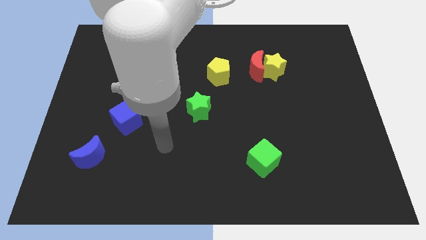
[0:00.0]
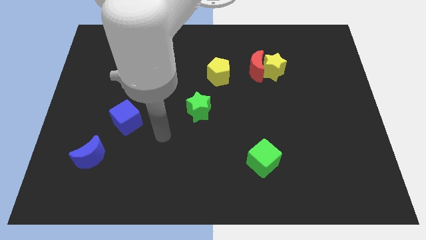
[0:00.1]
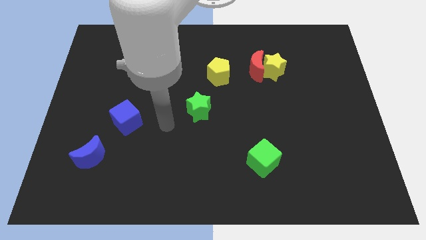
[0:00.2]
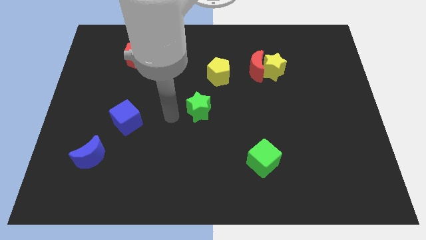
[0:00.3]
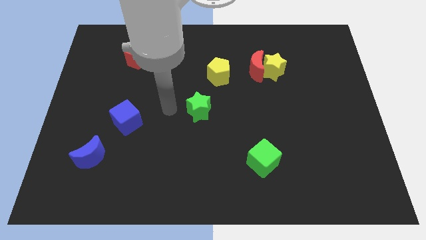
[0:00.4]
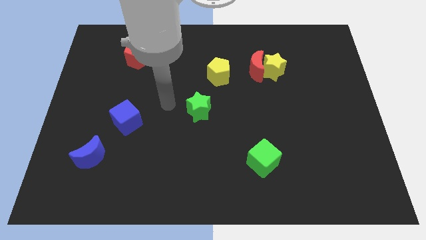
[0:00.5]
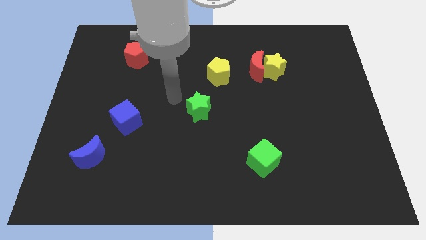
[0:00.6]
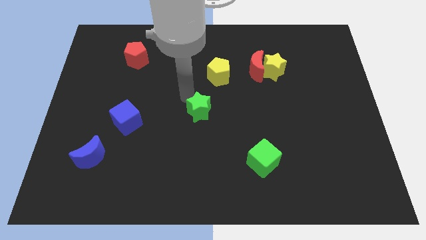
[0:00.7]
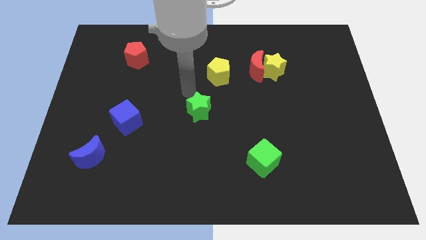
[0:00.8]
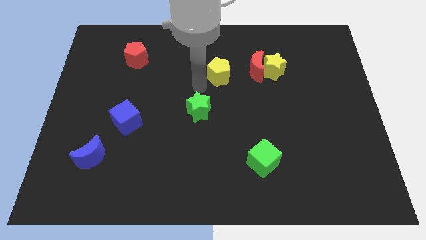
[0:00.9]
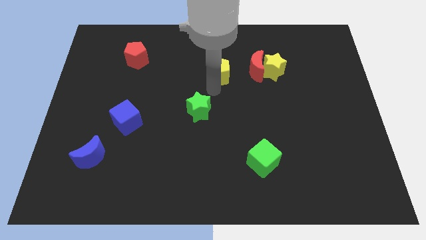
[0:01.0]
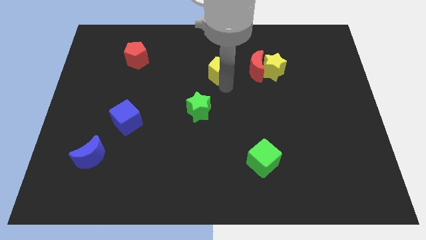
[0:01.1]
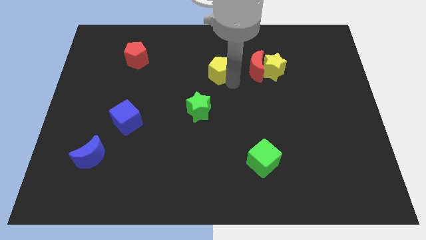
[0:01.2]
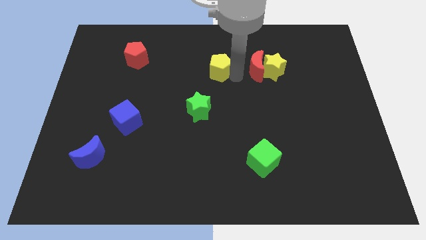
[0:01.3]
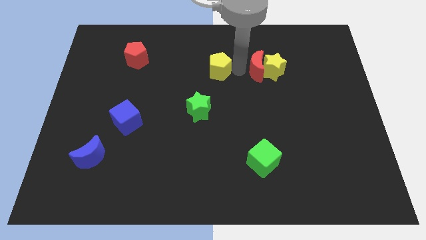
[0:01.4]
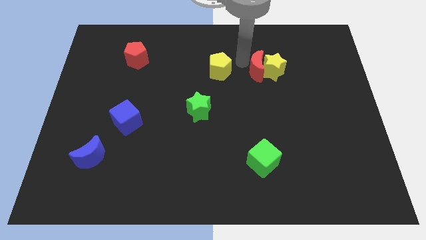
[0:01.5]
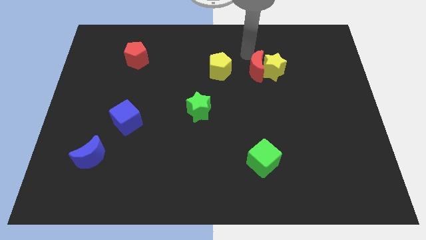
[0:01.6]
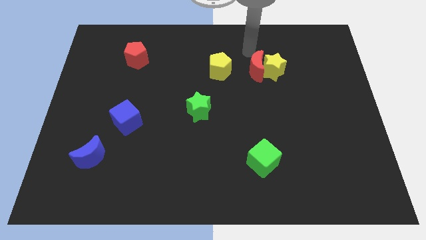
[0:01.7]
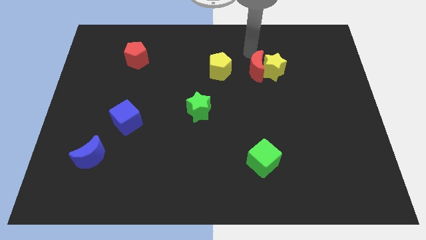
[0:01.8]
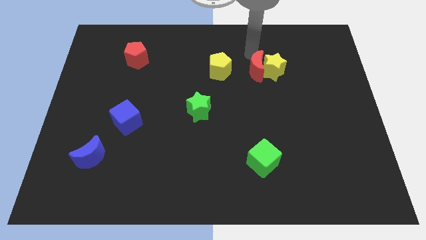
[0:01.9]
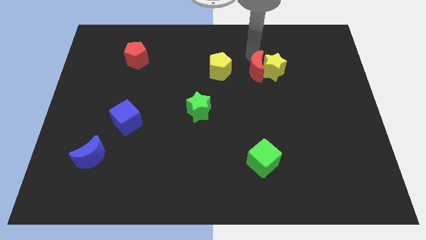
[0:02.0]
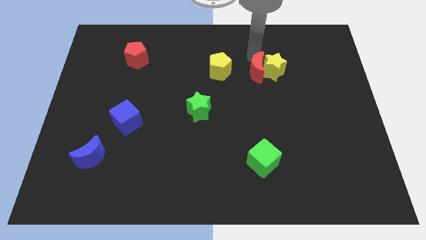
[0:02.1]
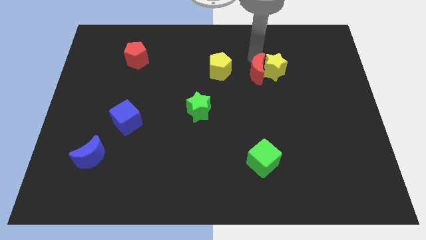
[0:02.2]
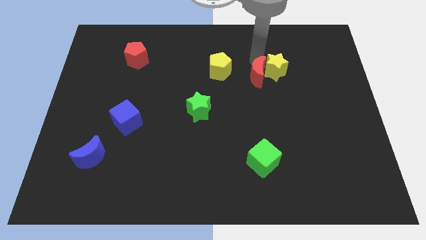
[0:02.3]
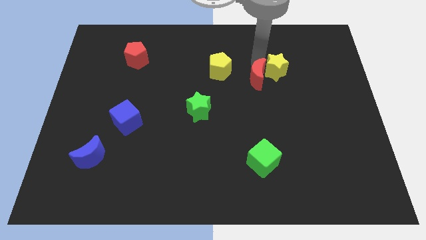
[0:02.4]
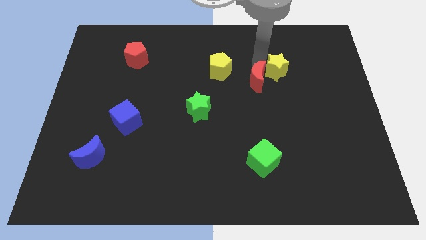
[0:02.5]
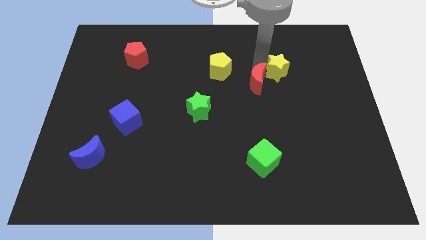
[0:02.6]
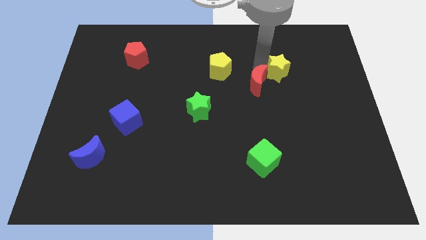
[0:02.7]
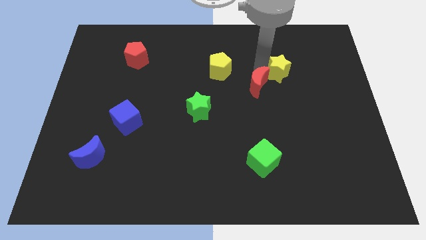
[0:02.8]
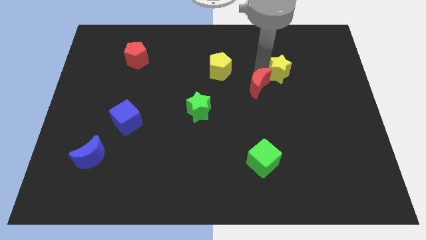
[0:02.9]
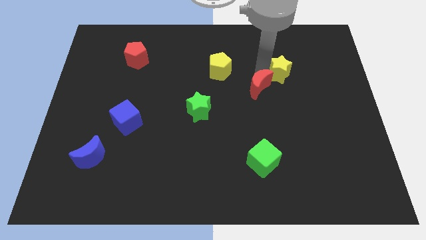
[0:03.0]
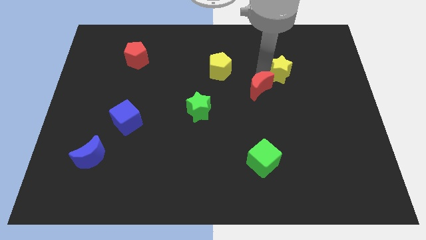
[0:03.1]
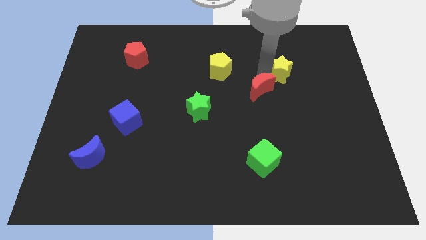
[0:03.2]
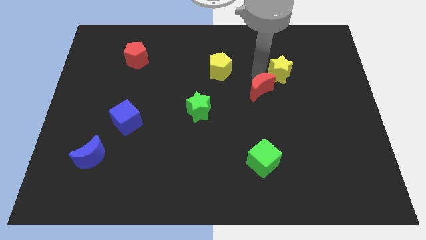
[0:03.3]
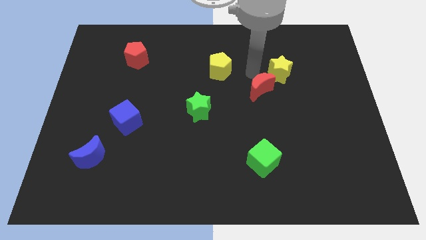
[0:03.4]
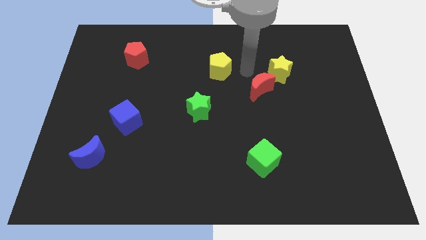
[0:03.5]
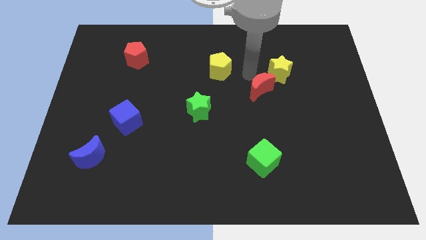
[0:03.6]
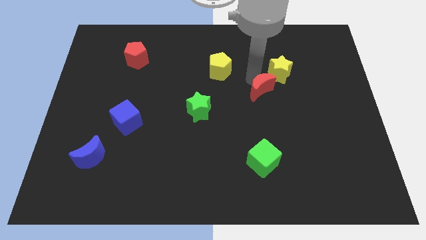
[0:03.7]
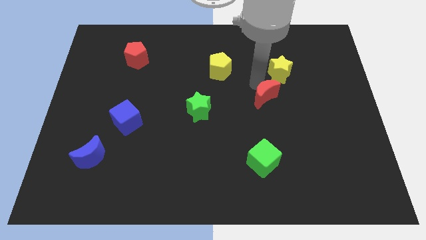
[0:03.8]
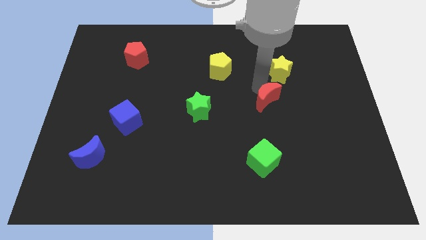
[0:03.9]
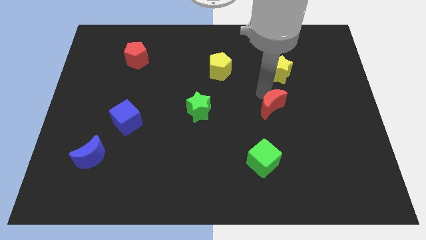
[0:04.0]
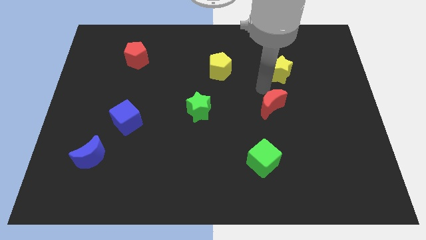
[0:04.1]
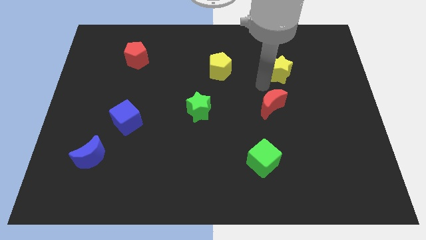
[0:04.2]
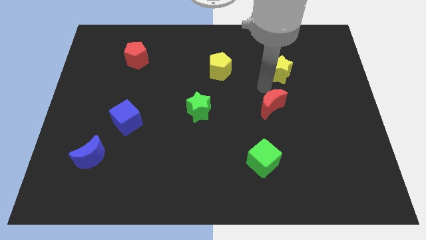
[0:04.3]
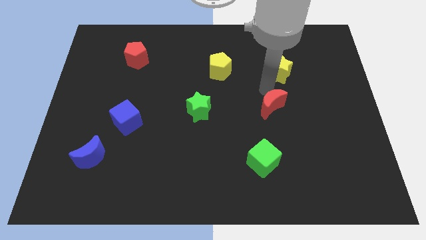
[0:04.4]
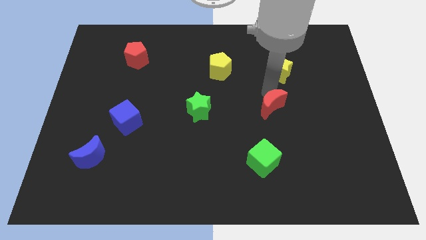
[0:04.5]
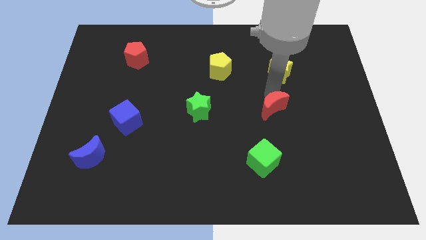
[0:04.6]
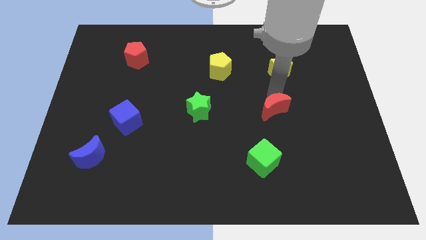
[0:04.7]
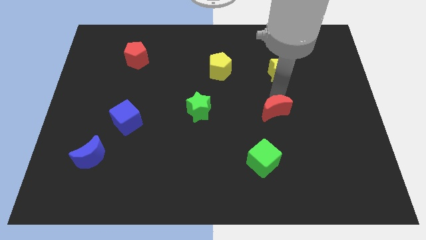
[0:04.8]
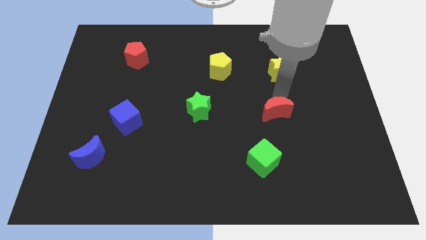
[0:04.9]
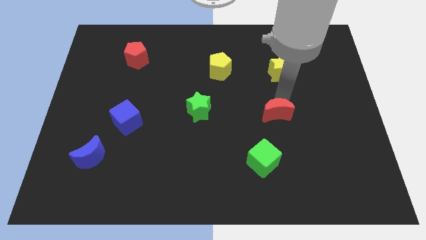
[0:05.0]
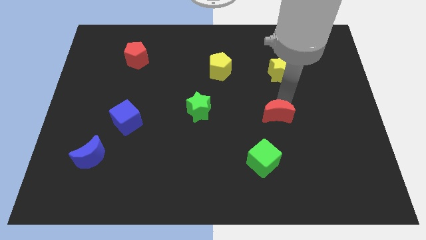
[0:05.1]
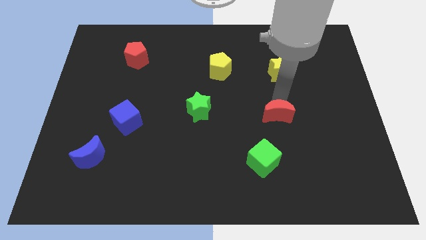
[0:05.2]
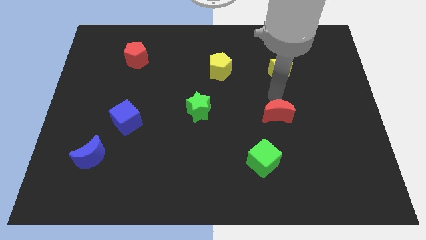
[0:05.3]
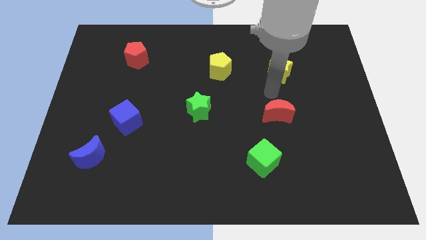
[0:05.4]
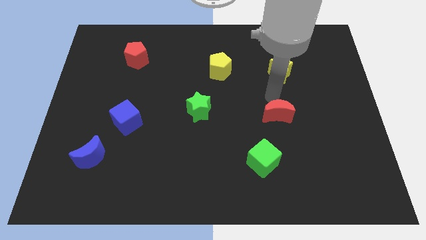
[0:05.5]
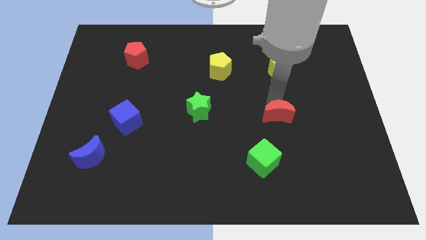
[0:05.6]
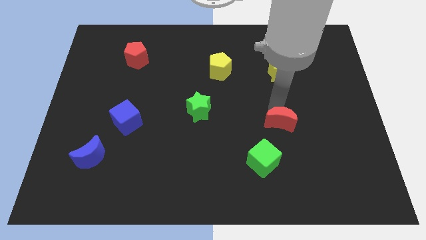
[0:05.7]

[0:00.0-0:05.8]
slide the red moon diagonally up and to the right of the green cube

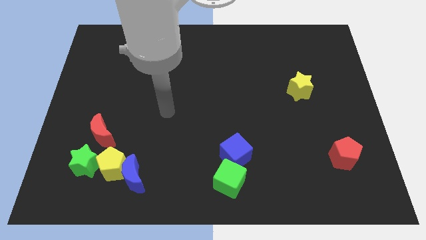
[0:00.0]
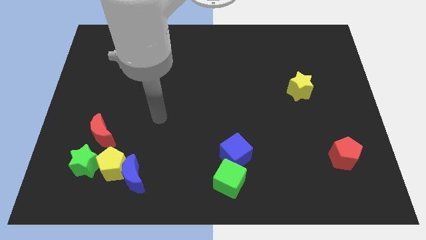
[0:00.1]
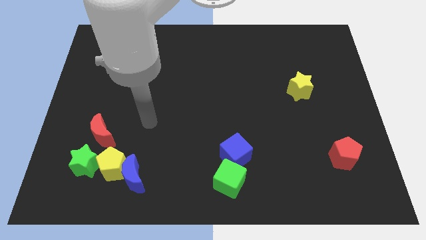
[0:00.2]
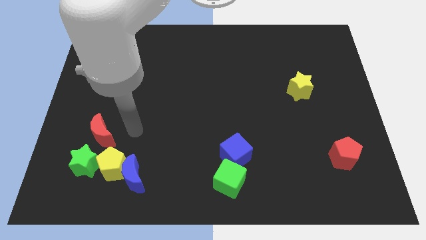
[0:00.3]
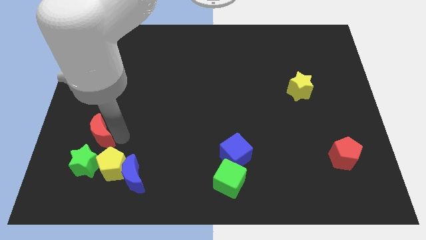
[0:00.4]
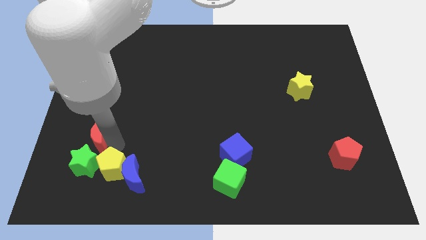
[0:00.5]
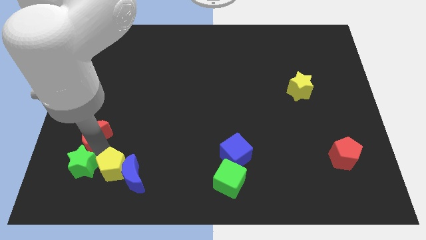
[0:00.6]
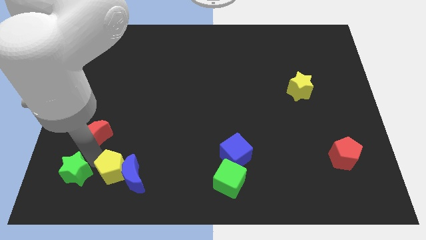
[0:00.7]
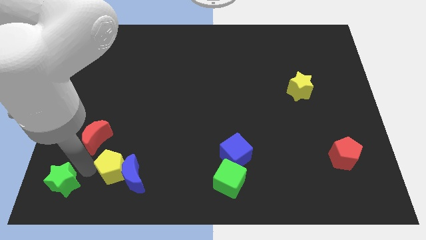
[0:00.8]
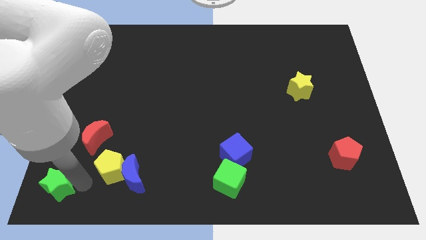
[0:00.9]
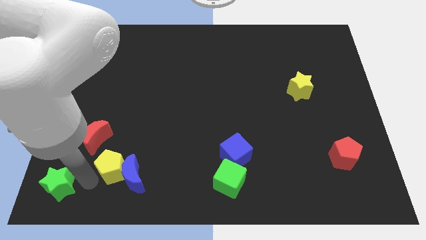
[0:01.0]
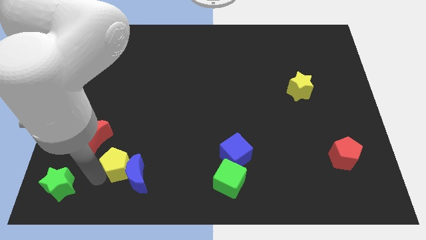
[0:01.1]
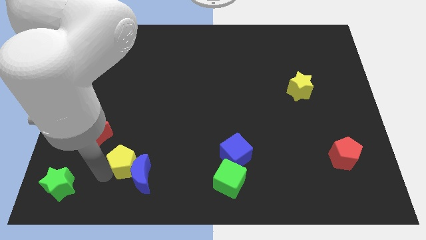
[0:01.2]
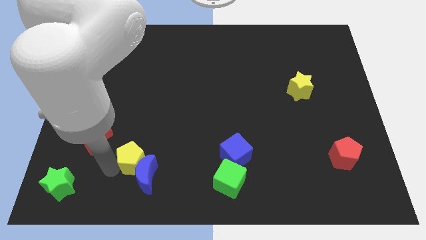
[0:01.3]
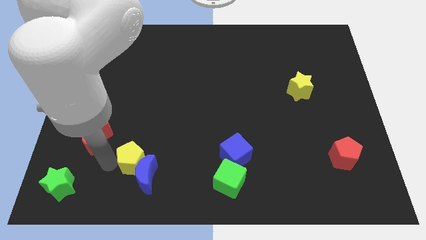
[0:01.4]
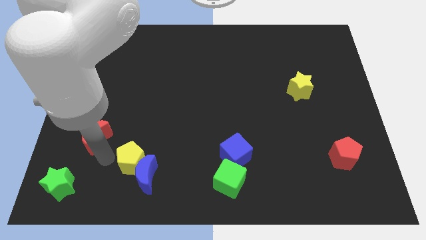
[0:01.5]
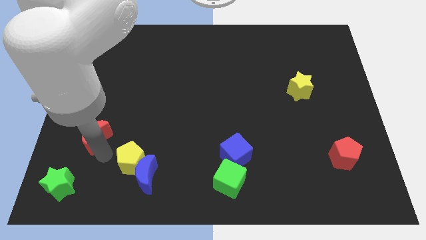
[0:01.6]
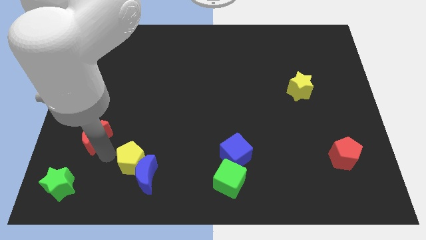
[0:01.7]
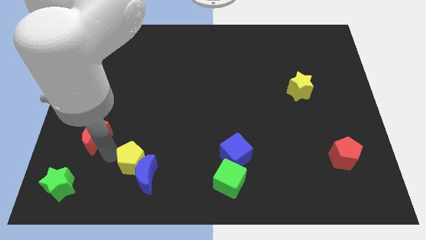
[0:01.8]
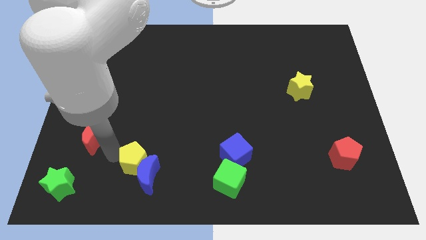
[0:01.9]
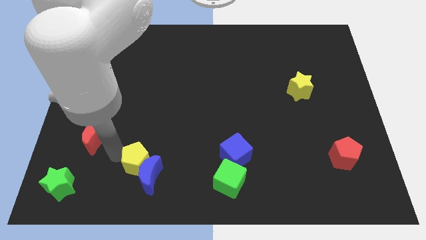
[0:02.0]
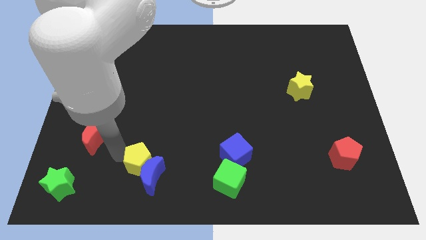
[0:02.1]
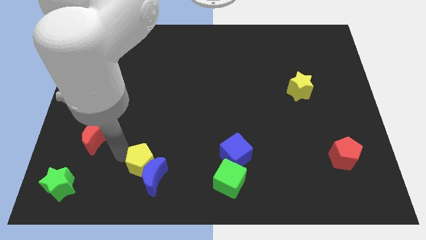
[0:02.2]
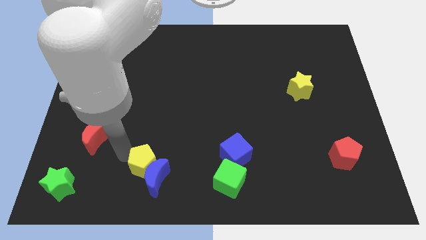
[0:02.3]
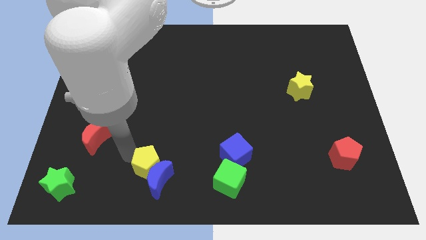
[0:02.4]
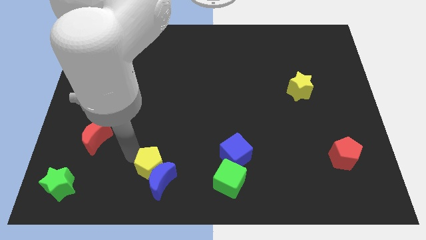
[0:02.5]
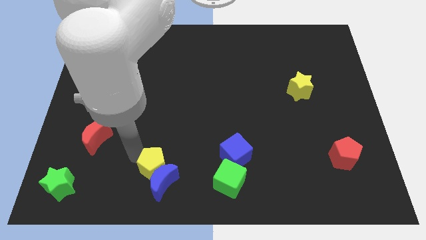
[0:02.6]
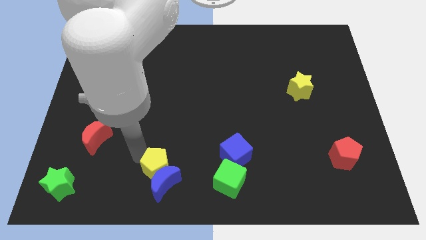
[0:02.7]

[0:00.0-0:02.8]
put the yellow pentagon just left of the green cube
